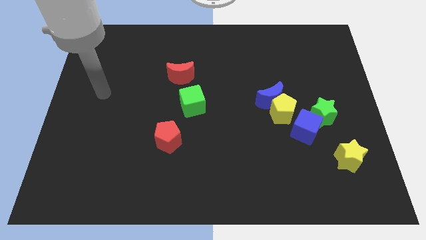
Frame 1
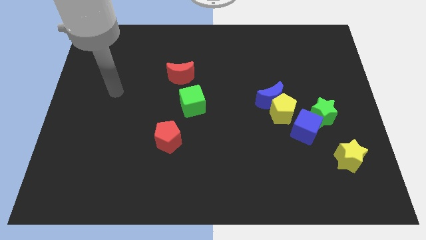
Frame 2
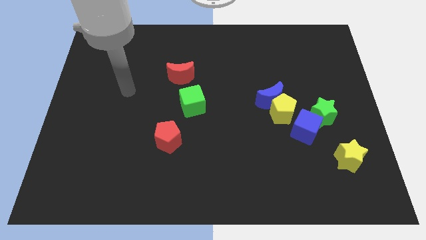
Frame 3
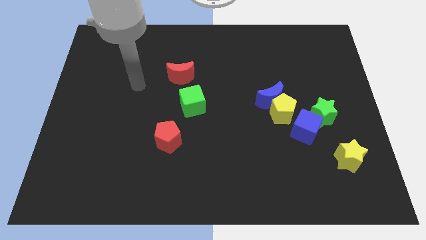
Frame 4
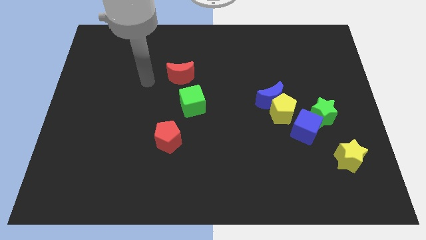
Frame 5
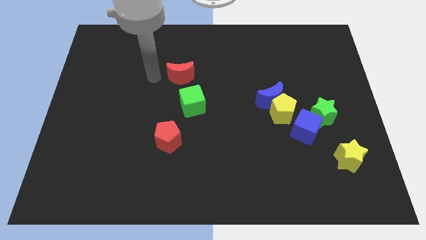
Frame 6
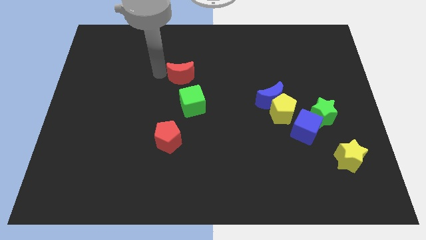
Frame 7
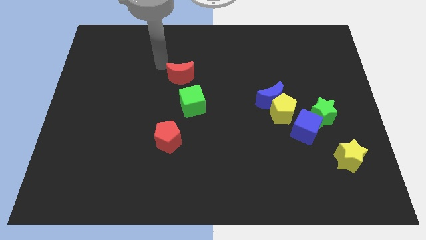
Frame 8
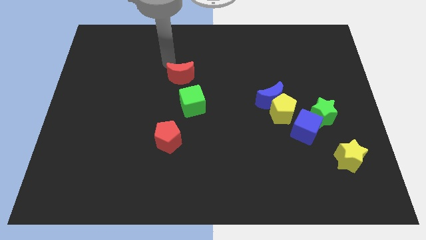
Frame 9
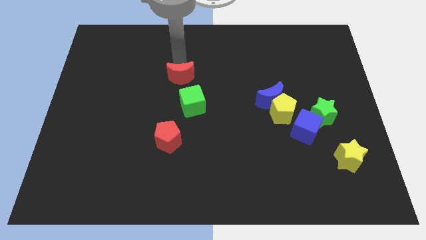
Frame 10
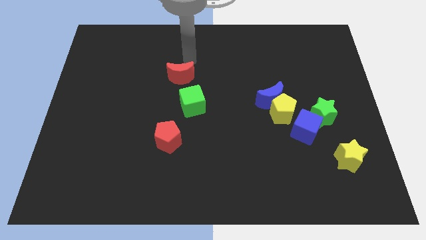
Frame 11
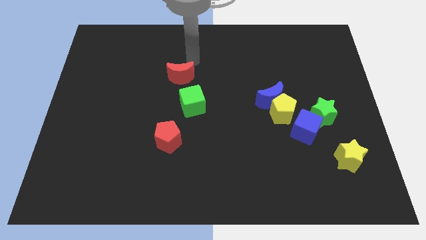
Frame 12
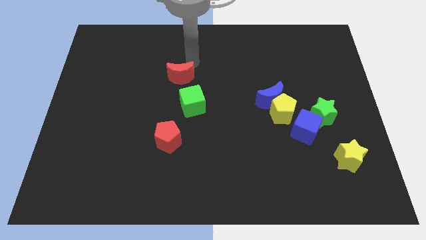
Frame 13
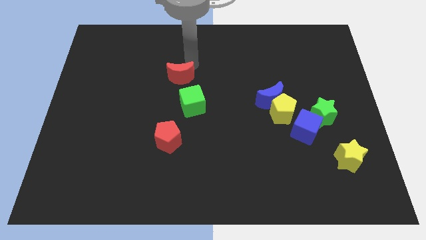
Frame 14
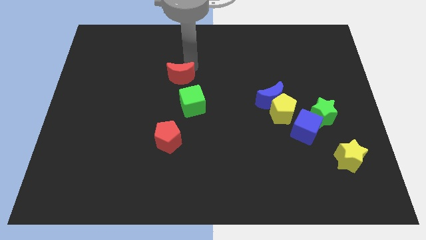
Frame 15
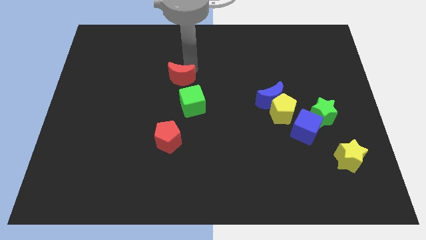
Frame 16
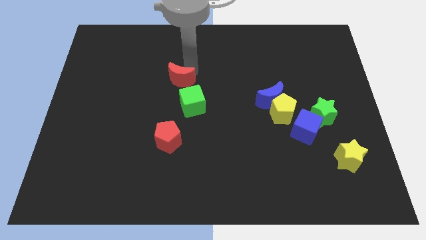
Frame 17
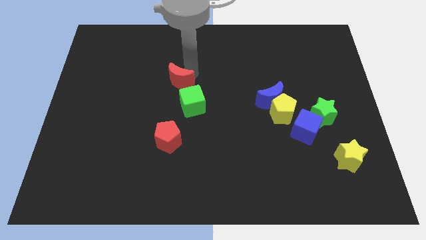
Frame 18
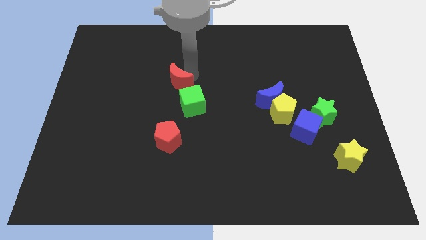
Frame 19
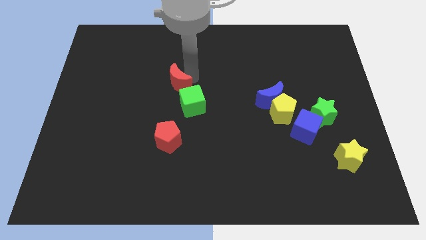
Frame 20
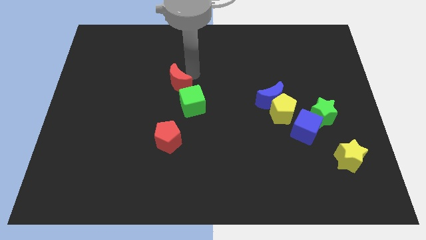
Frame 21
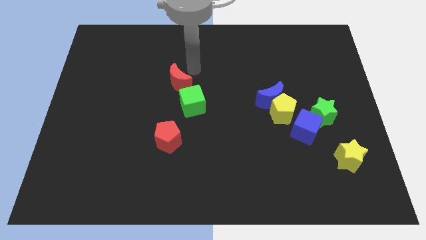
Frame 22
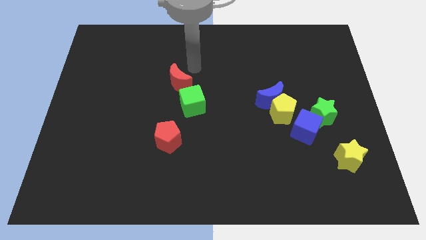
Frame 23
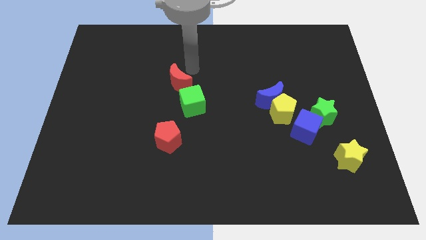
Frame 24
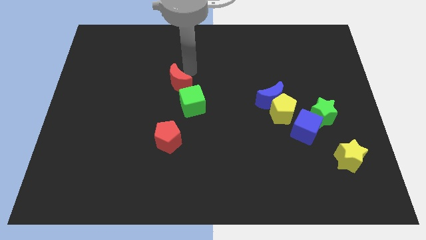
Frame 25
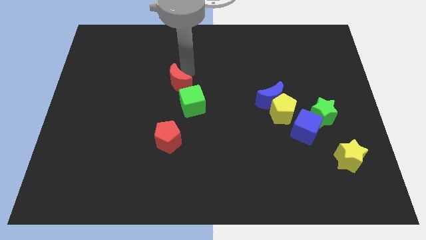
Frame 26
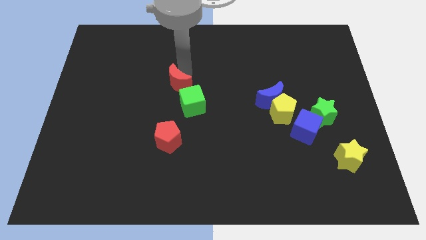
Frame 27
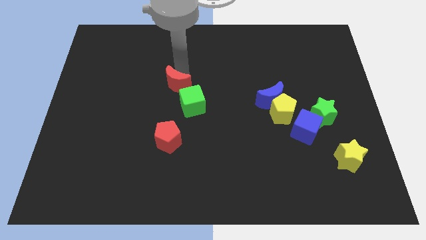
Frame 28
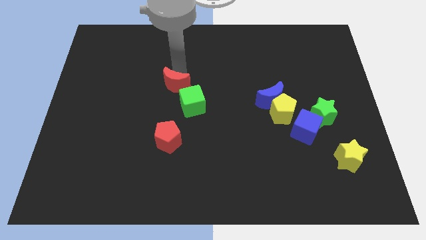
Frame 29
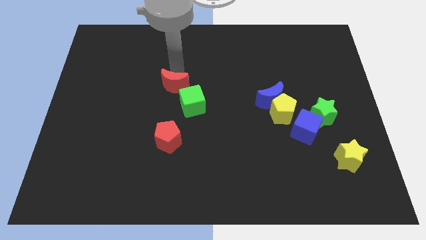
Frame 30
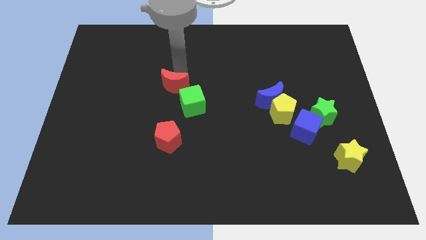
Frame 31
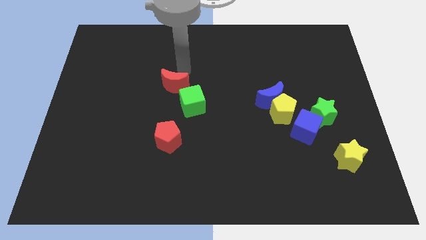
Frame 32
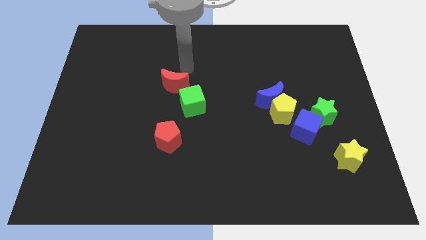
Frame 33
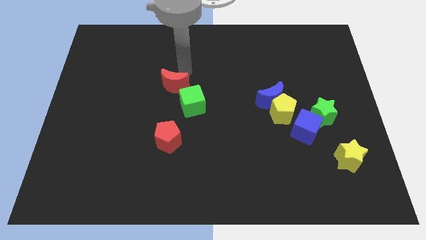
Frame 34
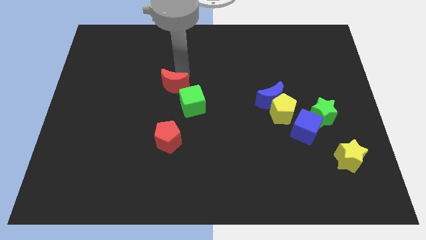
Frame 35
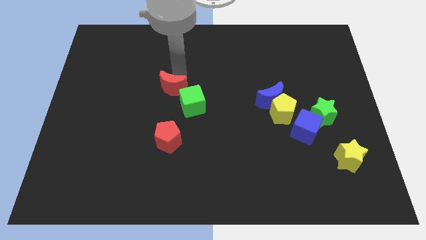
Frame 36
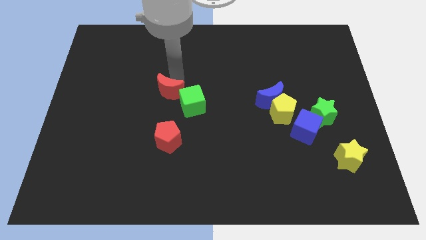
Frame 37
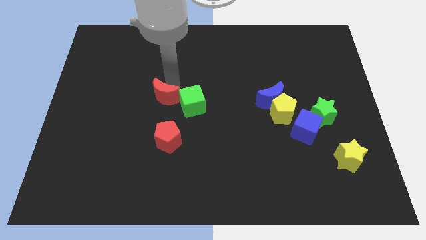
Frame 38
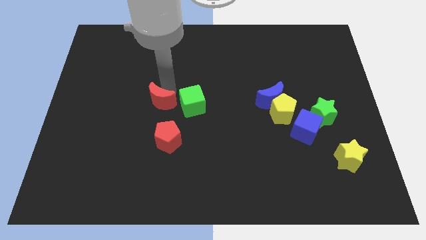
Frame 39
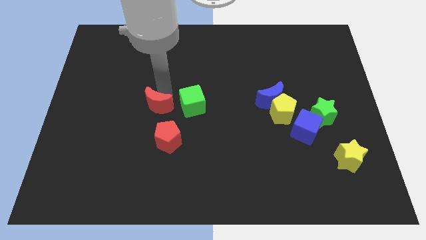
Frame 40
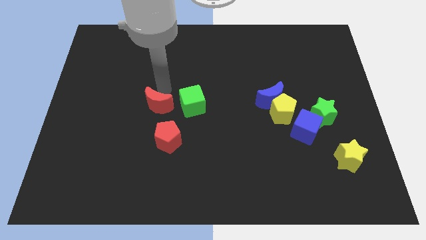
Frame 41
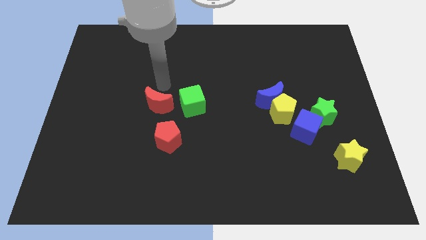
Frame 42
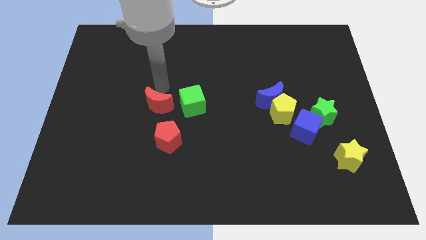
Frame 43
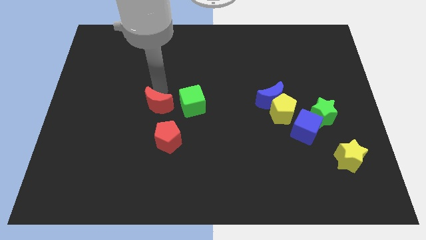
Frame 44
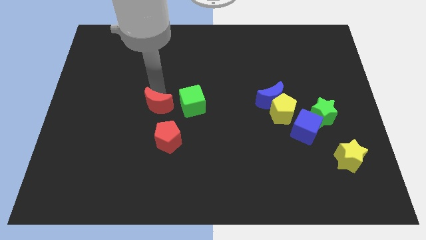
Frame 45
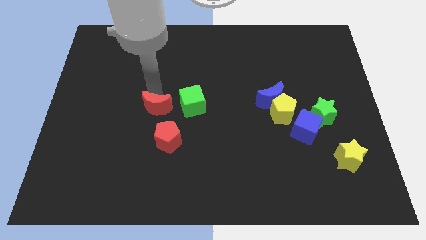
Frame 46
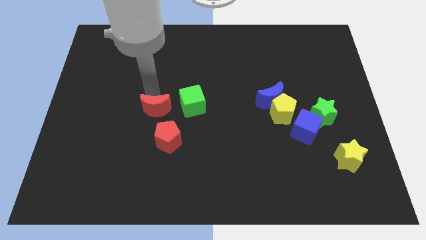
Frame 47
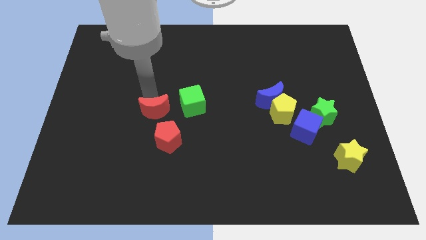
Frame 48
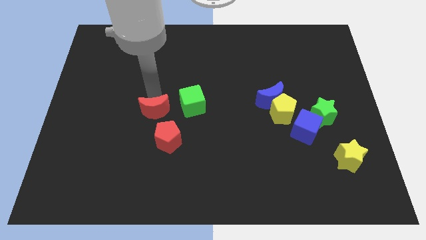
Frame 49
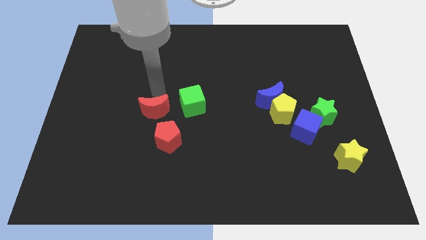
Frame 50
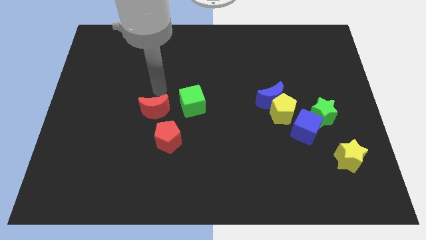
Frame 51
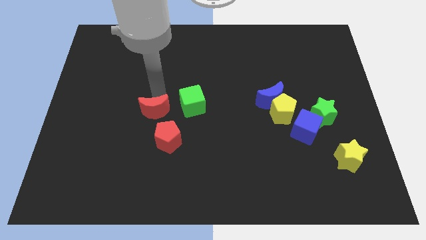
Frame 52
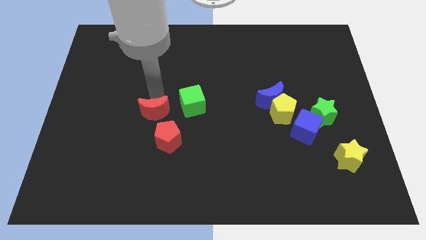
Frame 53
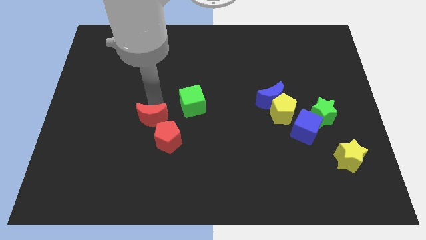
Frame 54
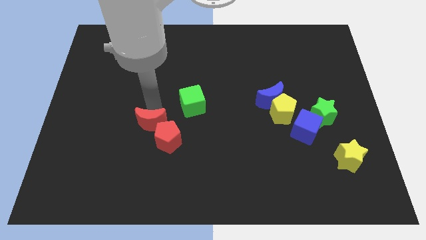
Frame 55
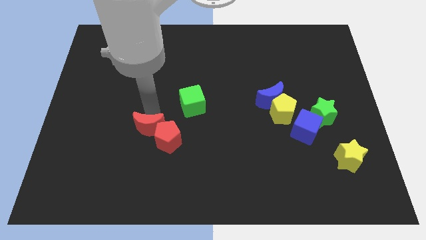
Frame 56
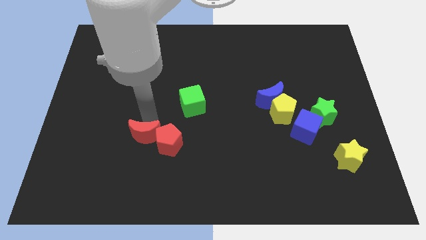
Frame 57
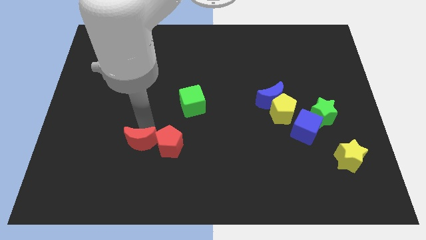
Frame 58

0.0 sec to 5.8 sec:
put the red moon to the bottom left side of the red pentagon

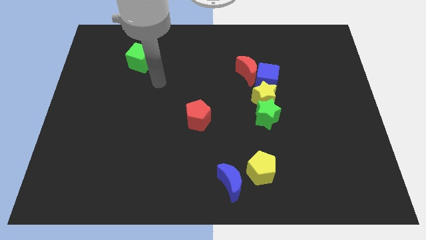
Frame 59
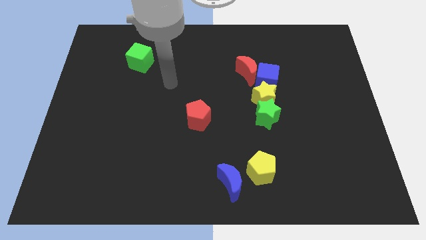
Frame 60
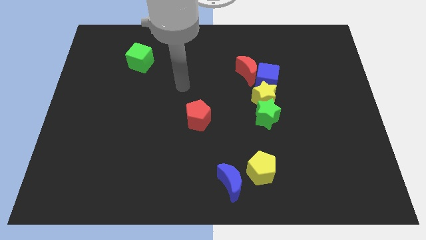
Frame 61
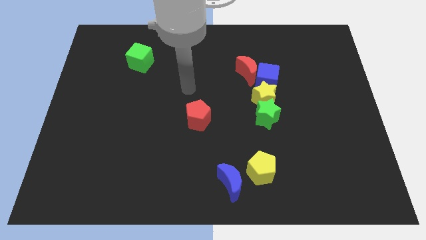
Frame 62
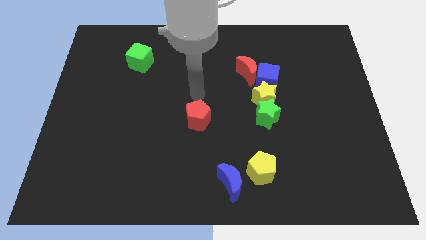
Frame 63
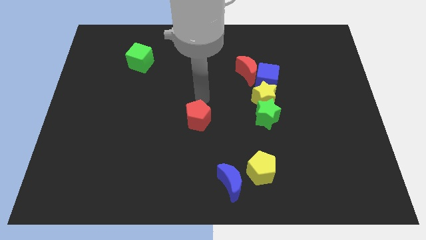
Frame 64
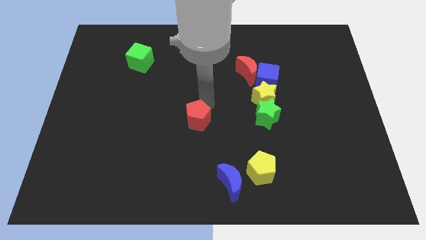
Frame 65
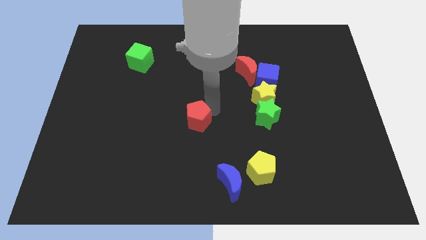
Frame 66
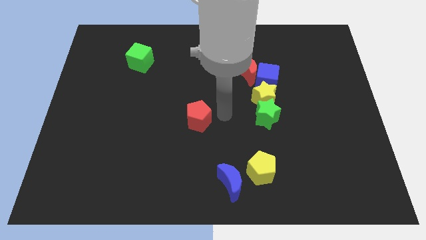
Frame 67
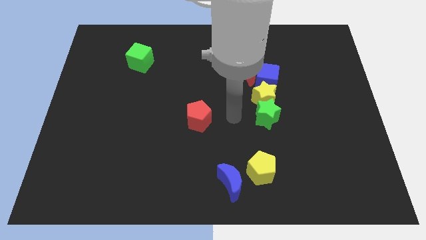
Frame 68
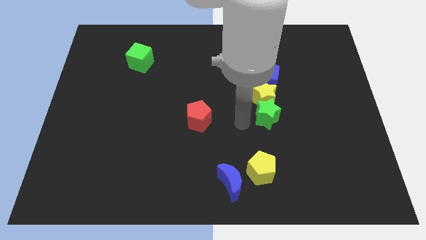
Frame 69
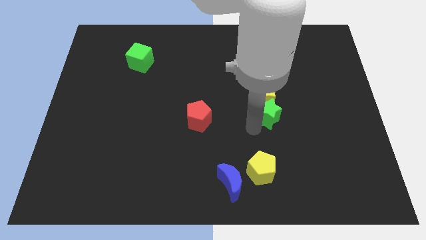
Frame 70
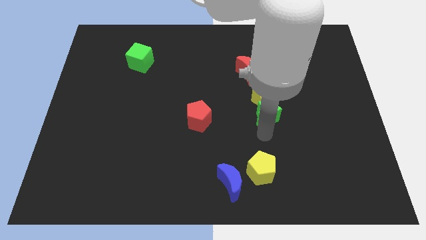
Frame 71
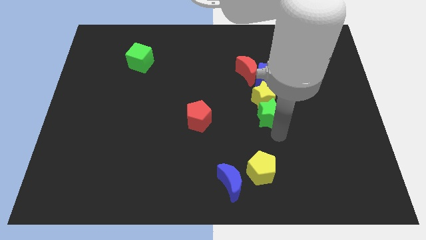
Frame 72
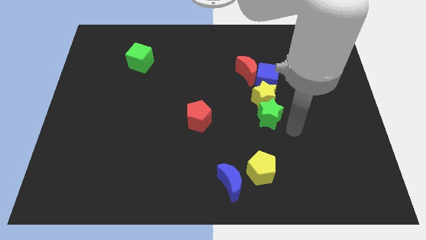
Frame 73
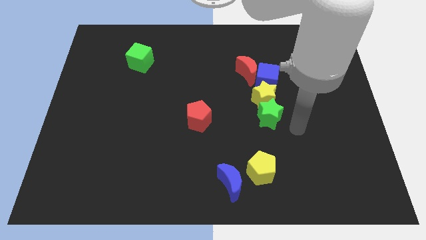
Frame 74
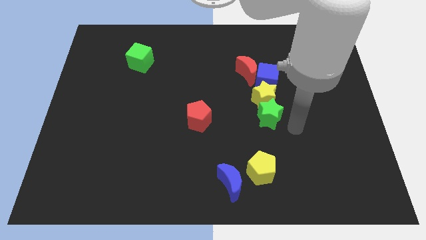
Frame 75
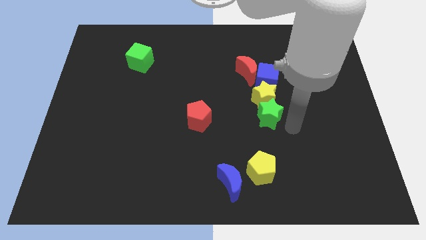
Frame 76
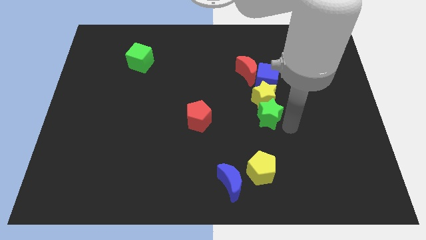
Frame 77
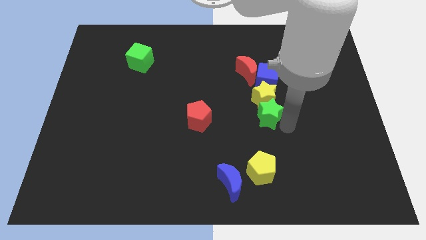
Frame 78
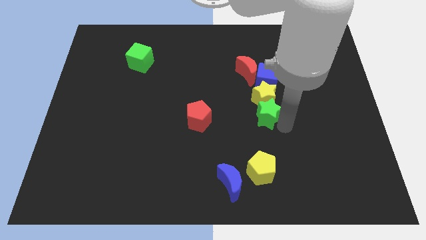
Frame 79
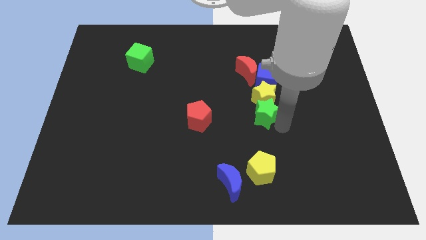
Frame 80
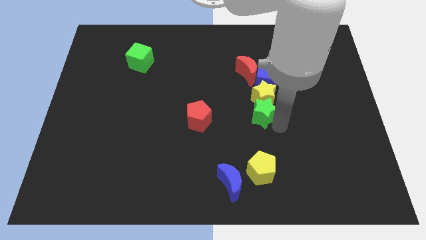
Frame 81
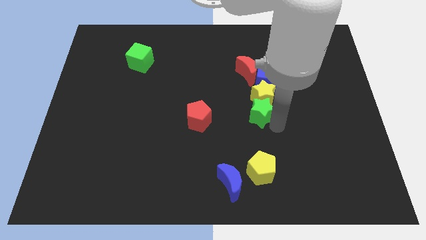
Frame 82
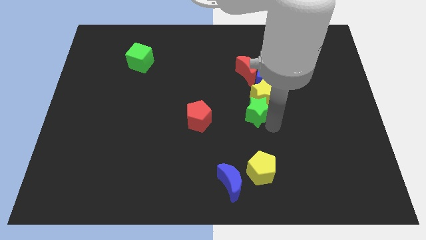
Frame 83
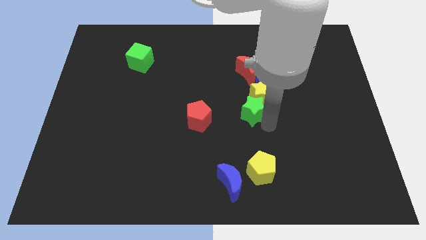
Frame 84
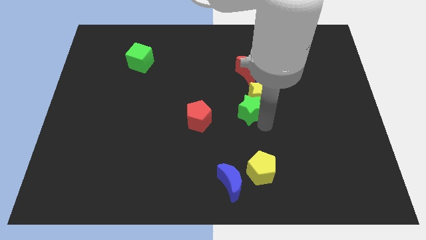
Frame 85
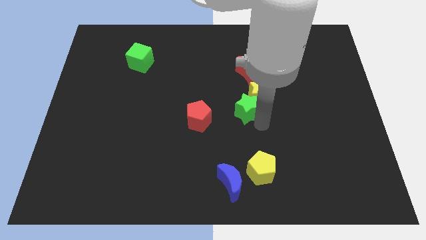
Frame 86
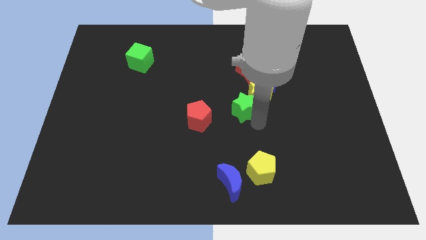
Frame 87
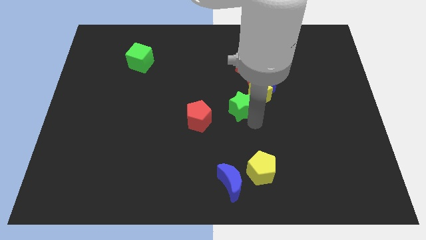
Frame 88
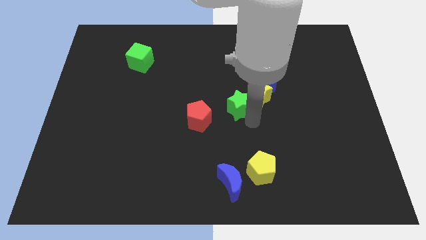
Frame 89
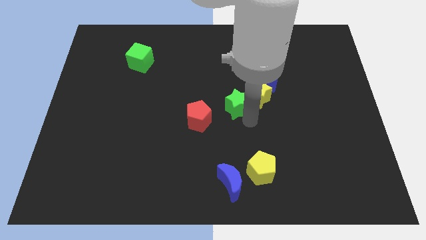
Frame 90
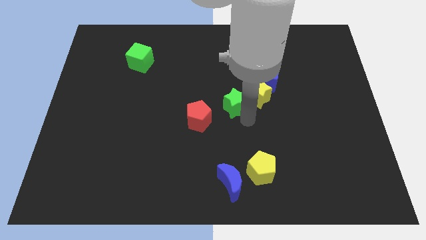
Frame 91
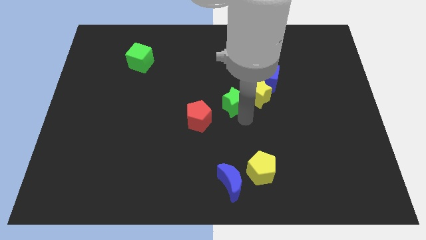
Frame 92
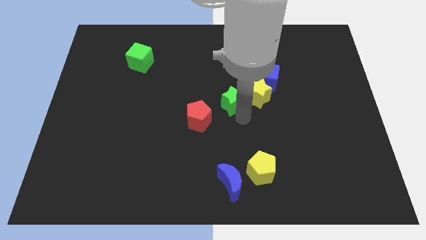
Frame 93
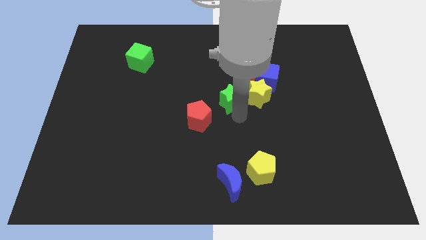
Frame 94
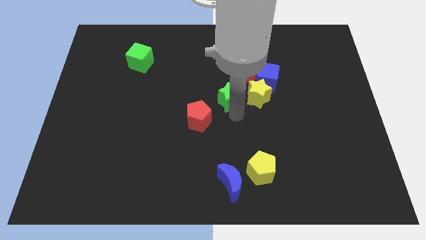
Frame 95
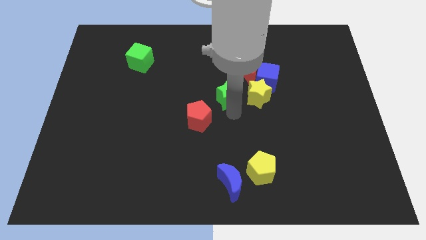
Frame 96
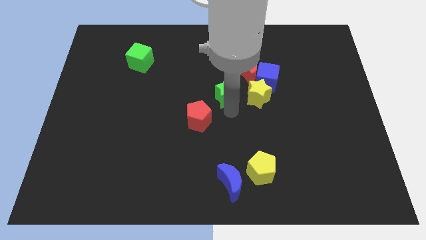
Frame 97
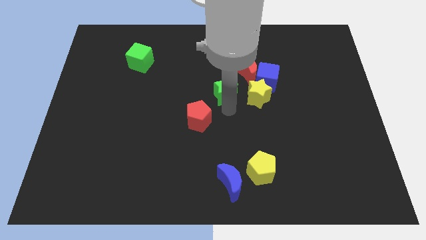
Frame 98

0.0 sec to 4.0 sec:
move the green star to the left of the blue cube
